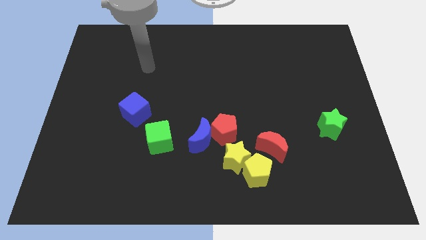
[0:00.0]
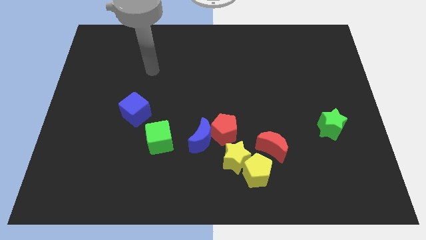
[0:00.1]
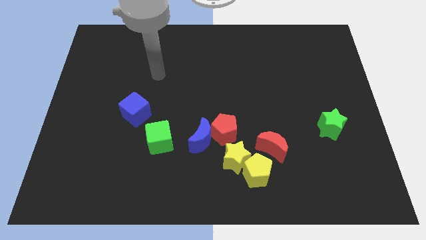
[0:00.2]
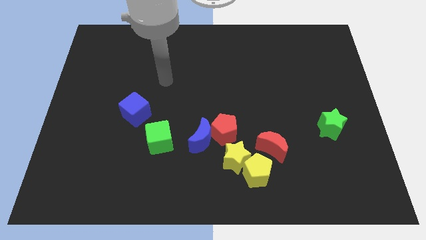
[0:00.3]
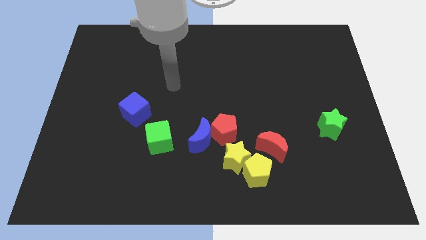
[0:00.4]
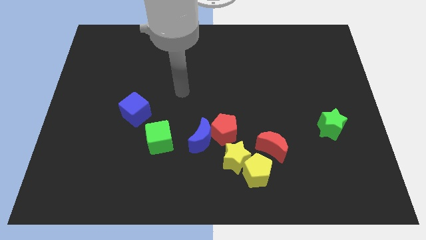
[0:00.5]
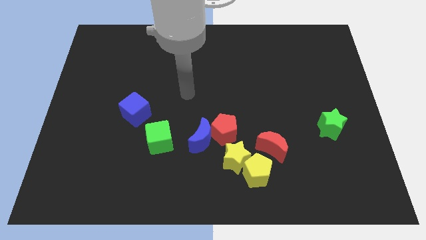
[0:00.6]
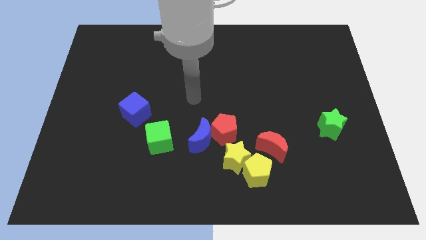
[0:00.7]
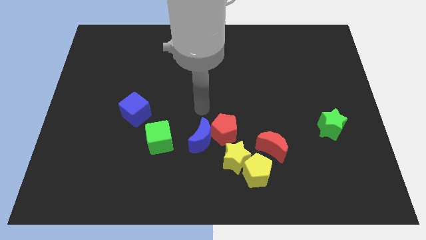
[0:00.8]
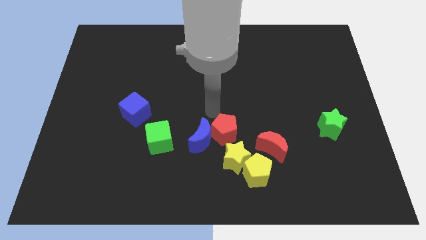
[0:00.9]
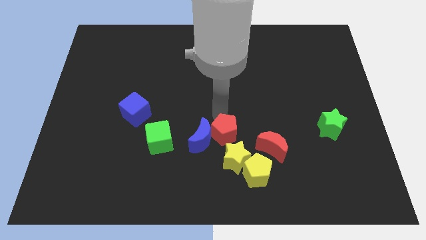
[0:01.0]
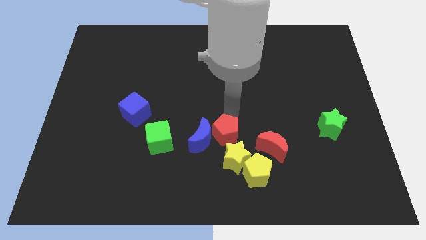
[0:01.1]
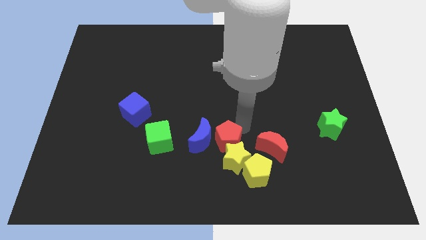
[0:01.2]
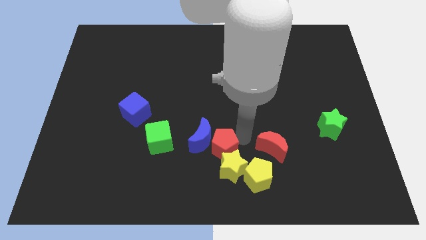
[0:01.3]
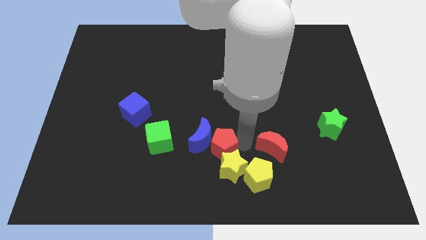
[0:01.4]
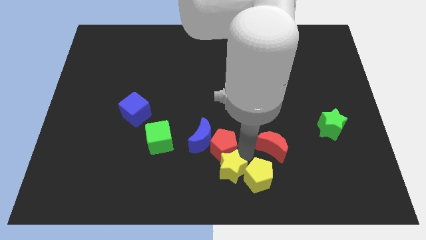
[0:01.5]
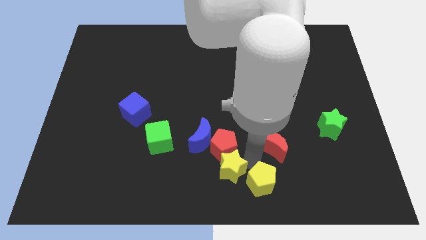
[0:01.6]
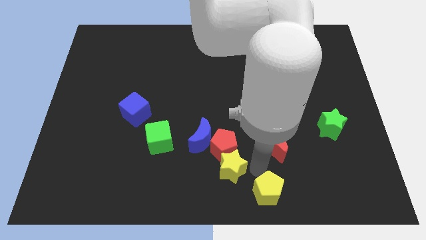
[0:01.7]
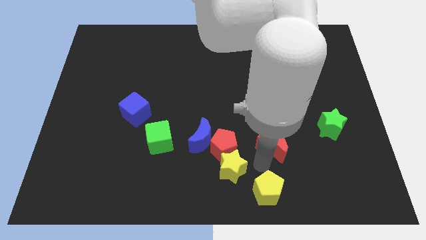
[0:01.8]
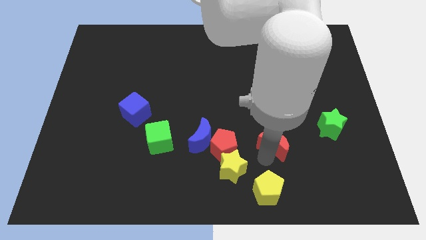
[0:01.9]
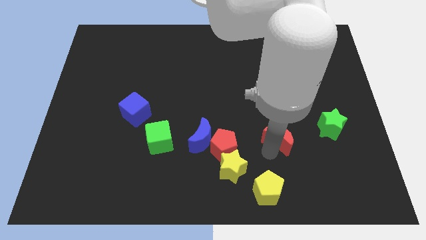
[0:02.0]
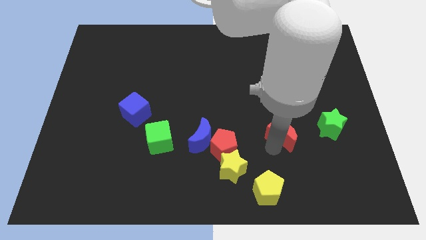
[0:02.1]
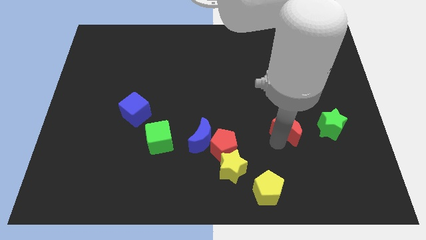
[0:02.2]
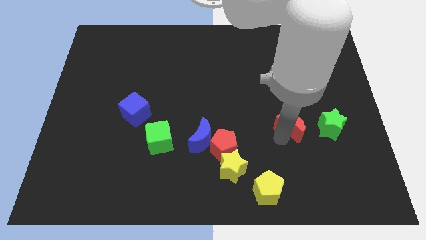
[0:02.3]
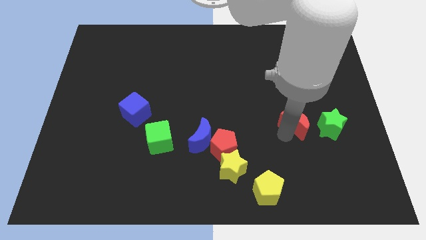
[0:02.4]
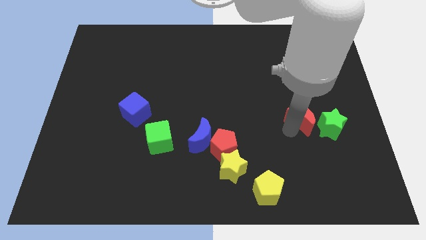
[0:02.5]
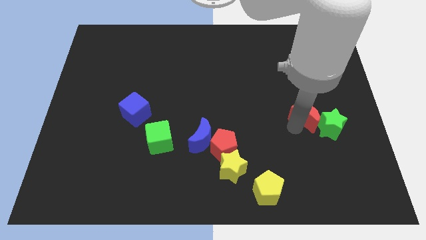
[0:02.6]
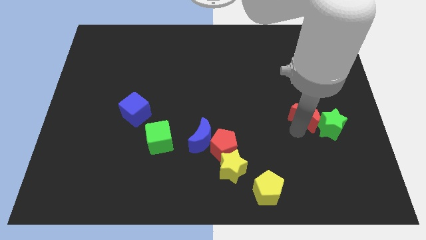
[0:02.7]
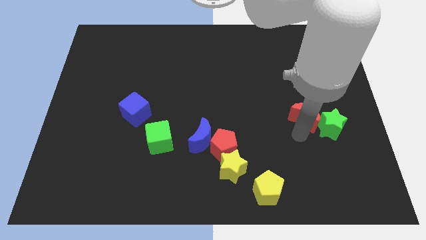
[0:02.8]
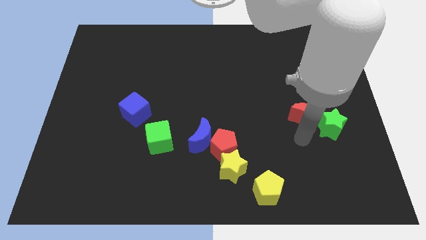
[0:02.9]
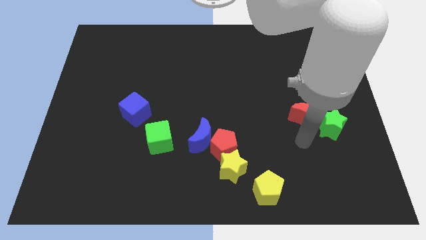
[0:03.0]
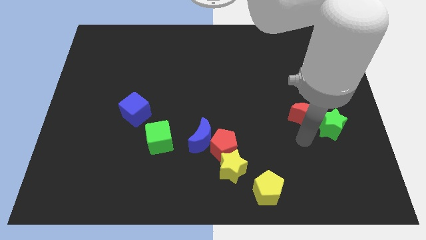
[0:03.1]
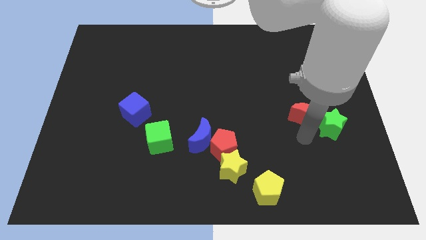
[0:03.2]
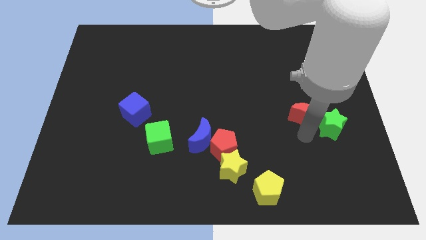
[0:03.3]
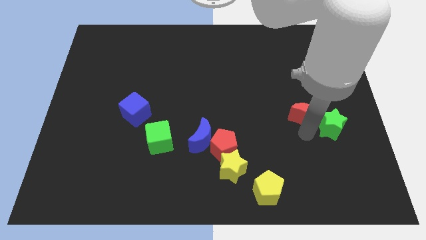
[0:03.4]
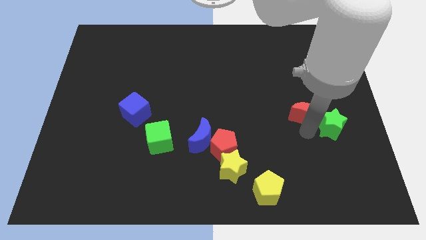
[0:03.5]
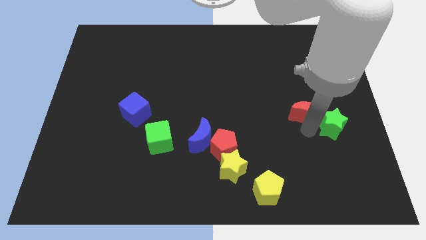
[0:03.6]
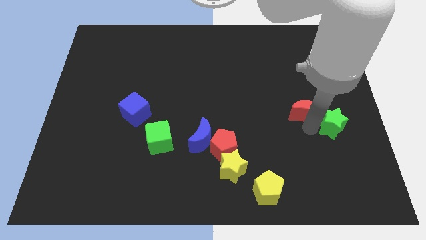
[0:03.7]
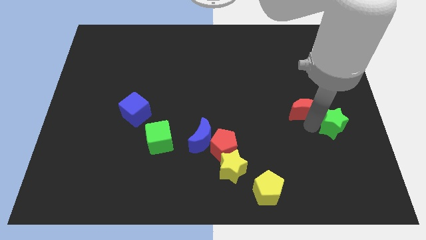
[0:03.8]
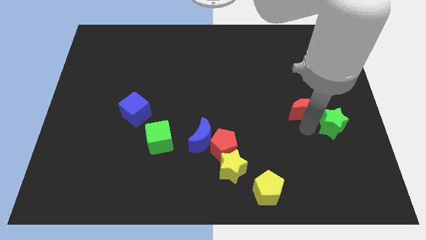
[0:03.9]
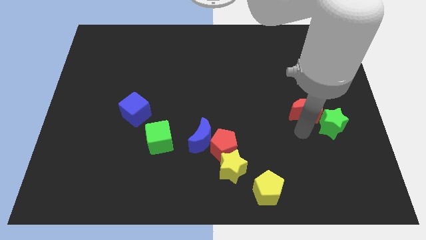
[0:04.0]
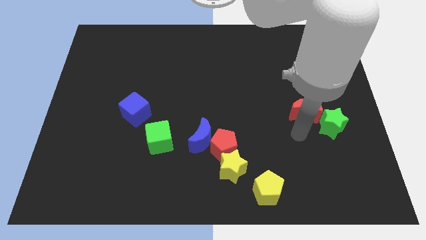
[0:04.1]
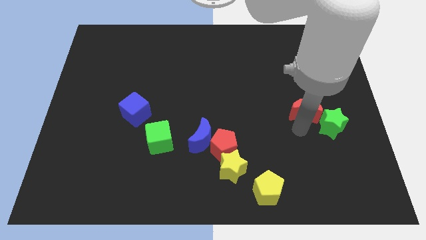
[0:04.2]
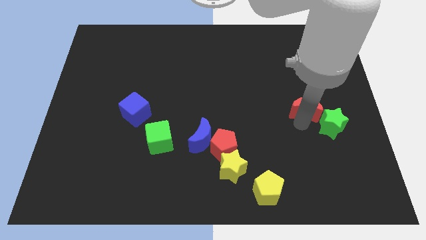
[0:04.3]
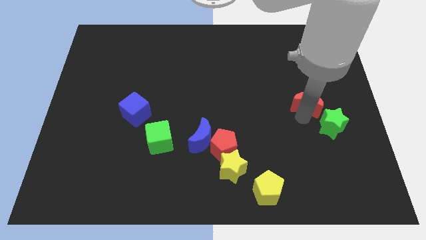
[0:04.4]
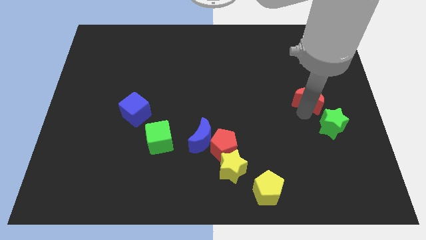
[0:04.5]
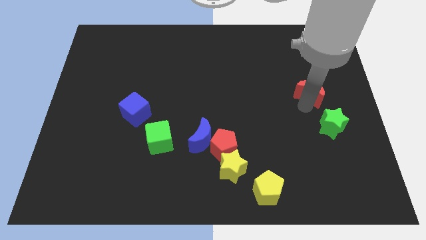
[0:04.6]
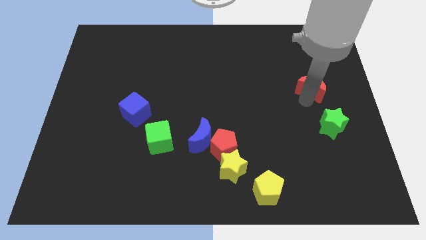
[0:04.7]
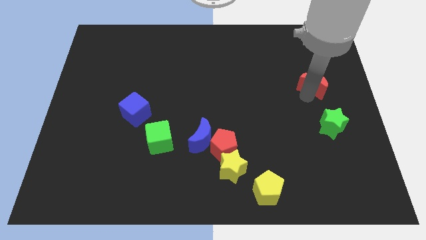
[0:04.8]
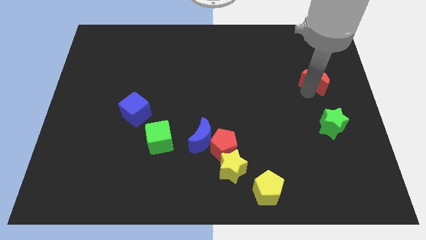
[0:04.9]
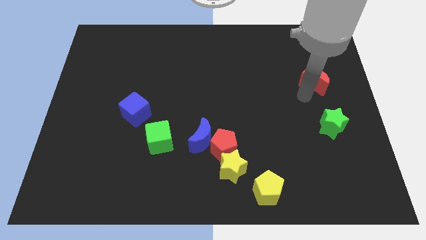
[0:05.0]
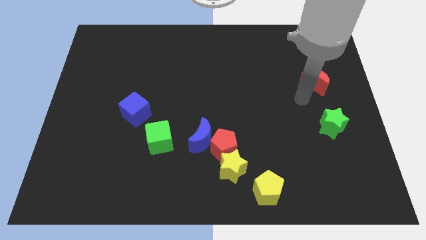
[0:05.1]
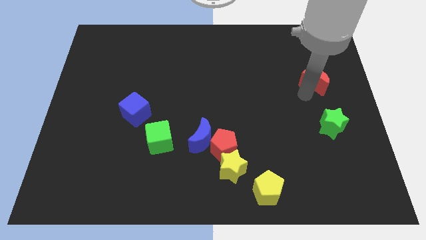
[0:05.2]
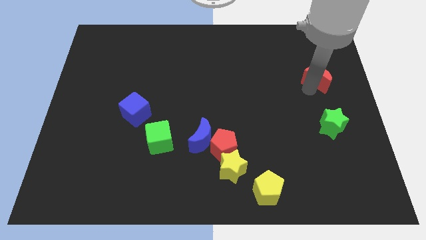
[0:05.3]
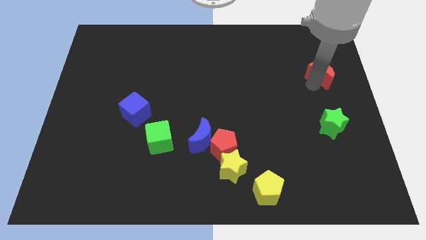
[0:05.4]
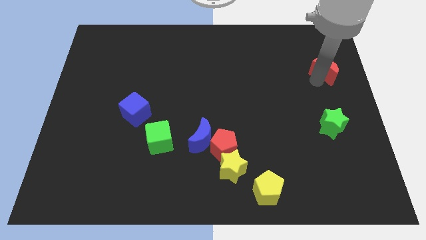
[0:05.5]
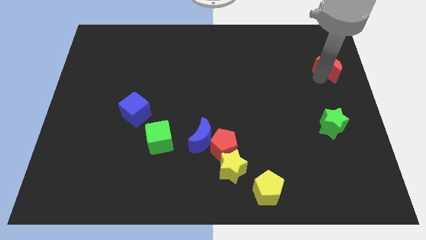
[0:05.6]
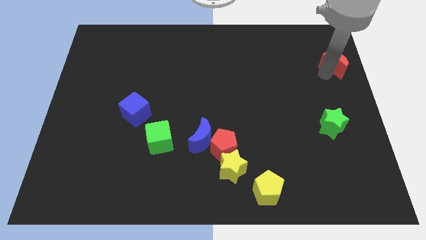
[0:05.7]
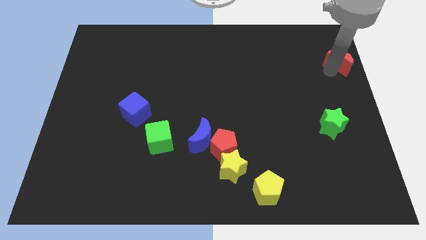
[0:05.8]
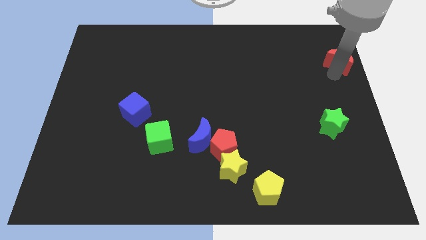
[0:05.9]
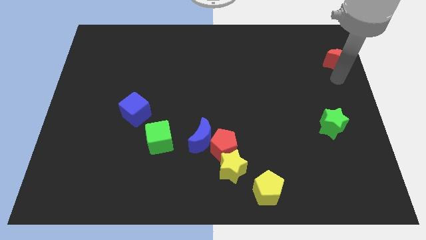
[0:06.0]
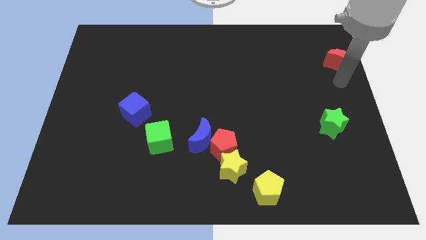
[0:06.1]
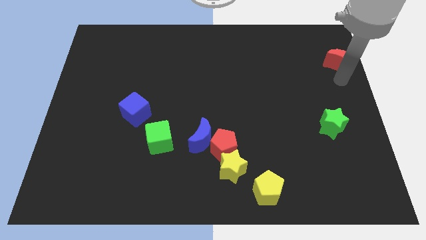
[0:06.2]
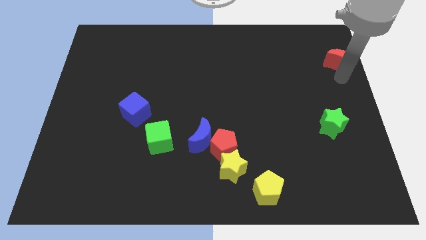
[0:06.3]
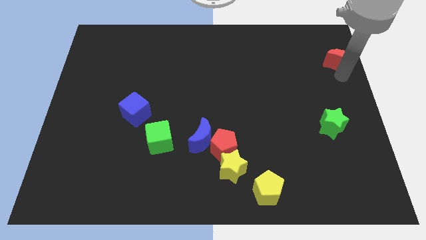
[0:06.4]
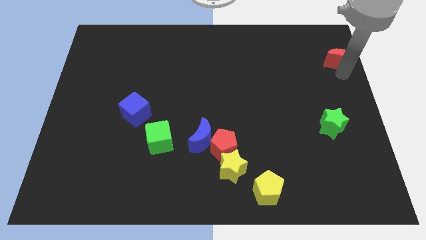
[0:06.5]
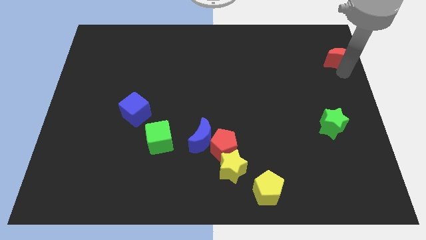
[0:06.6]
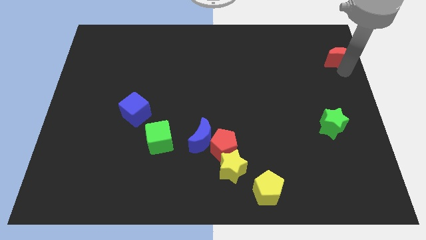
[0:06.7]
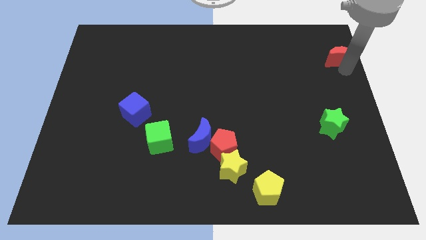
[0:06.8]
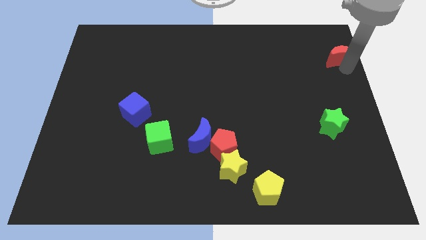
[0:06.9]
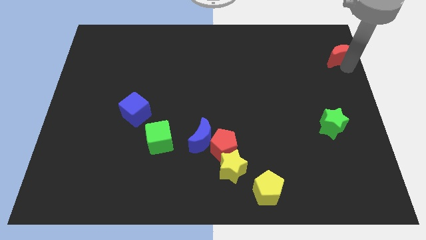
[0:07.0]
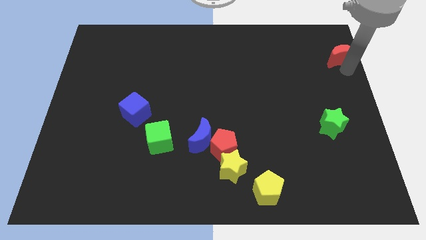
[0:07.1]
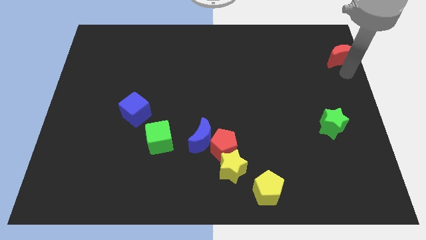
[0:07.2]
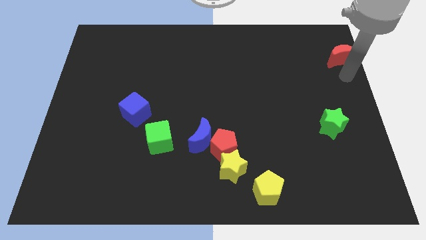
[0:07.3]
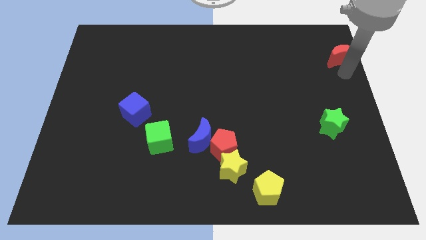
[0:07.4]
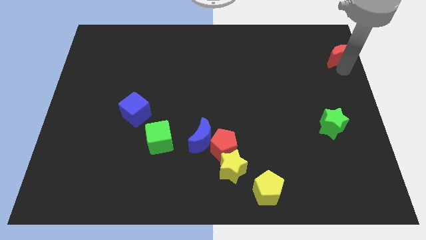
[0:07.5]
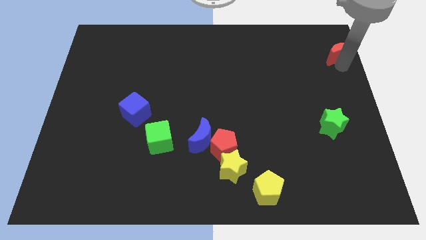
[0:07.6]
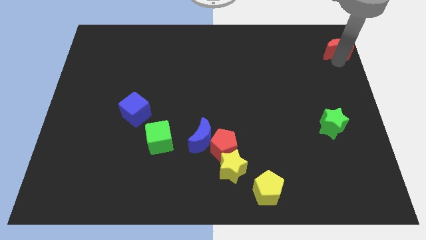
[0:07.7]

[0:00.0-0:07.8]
put the red moon to the top right
